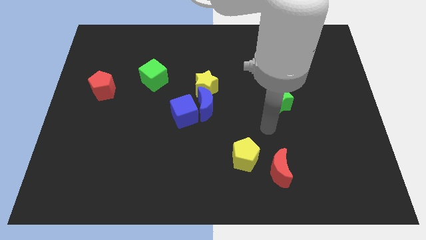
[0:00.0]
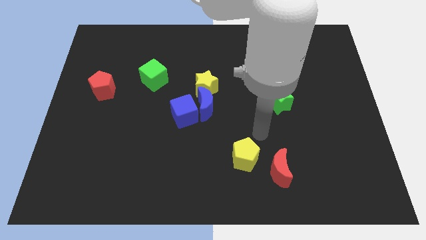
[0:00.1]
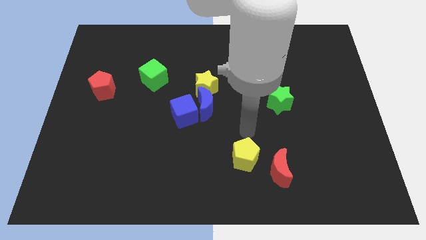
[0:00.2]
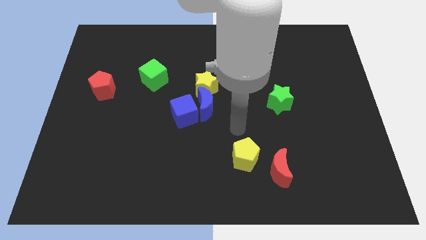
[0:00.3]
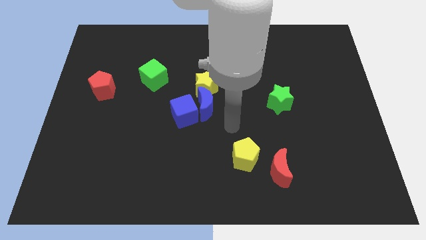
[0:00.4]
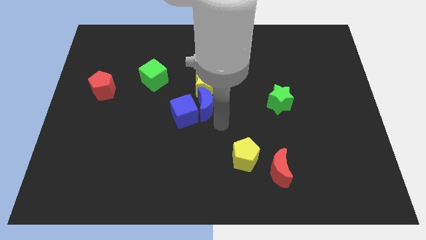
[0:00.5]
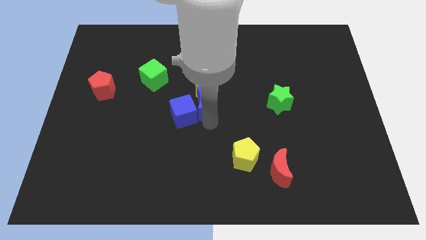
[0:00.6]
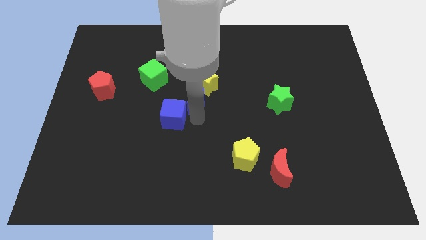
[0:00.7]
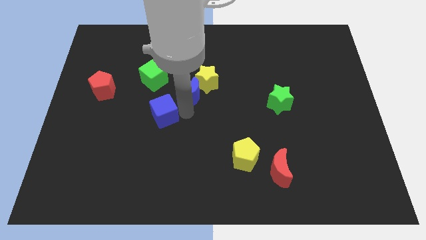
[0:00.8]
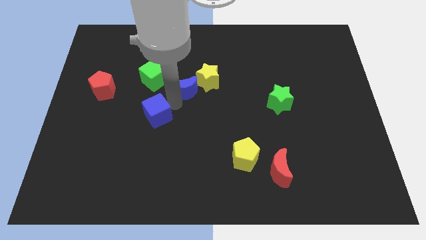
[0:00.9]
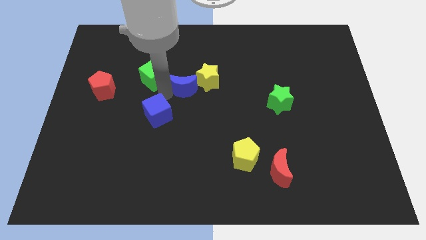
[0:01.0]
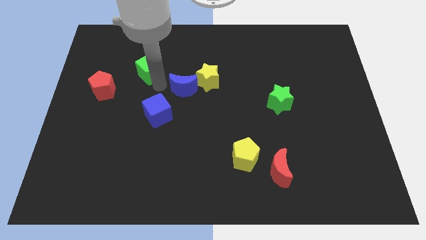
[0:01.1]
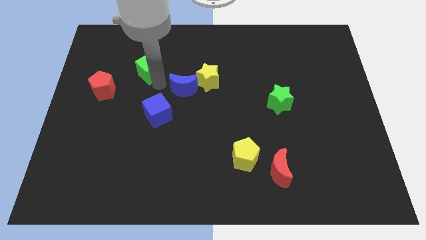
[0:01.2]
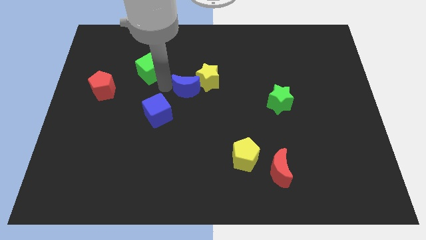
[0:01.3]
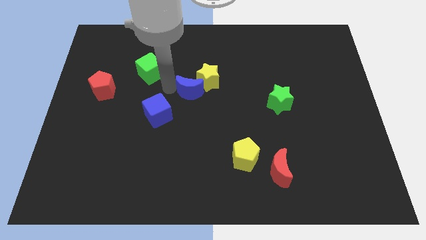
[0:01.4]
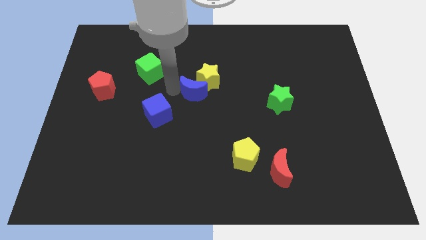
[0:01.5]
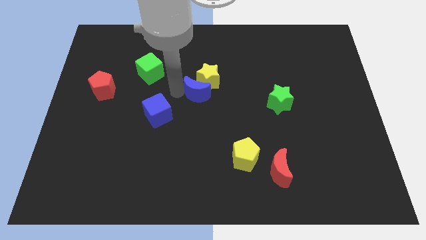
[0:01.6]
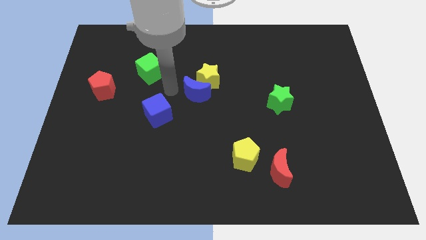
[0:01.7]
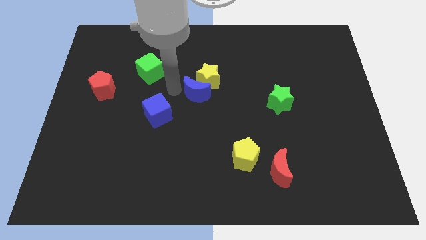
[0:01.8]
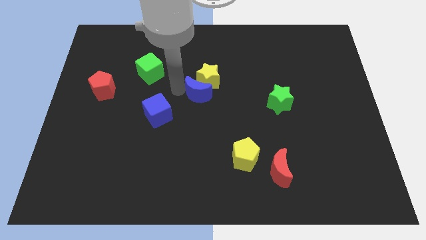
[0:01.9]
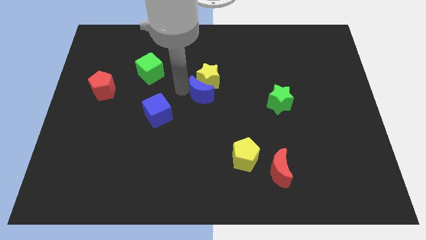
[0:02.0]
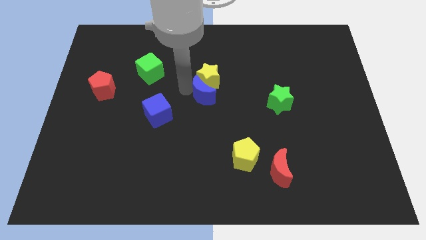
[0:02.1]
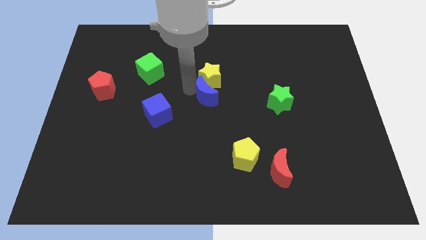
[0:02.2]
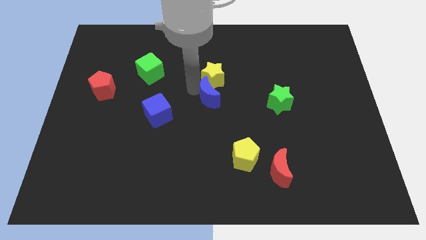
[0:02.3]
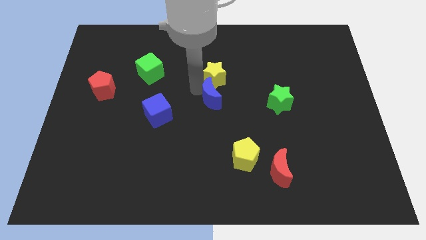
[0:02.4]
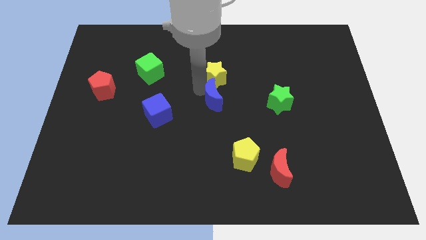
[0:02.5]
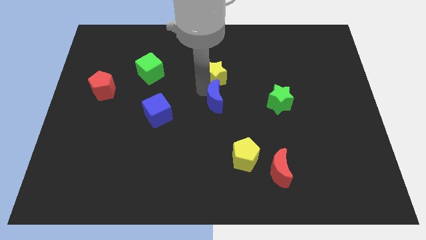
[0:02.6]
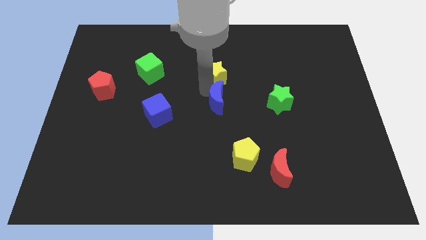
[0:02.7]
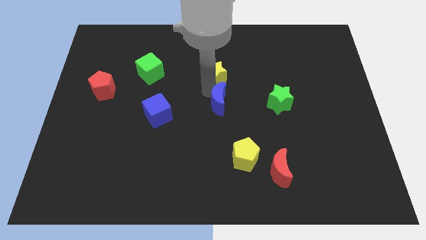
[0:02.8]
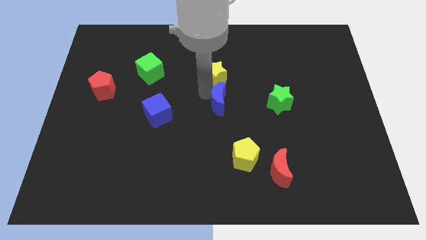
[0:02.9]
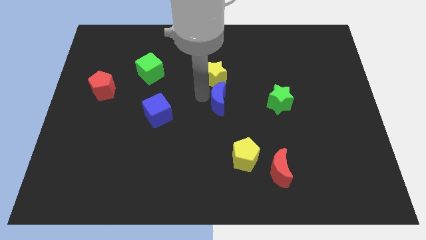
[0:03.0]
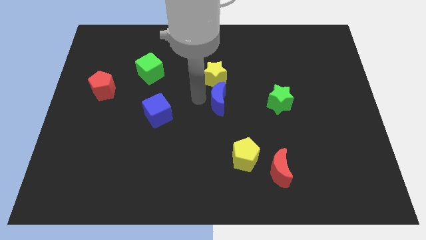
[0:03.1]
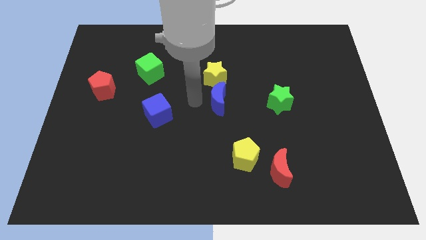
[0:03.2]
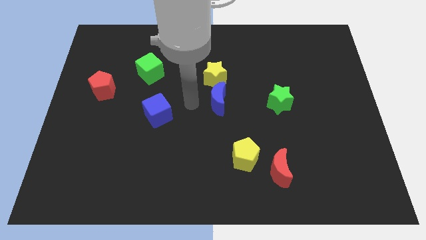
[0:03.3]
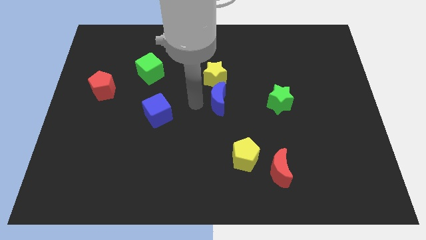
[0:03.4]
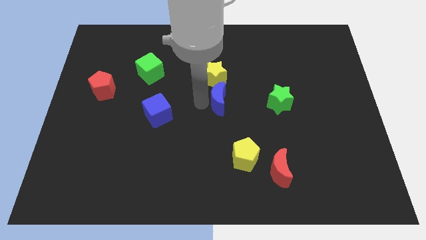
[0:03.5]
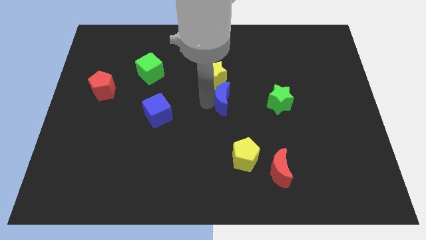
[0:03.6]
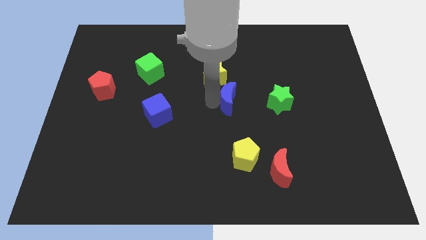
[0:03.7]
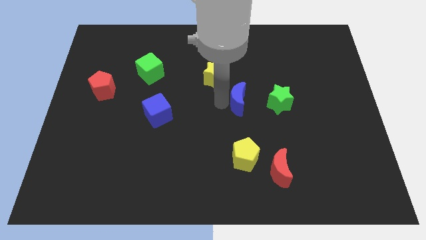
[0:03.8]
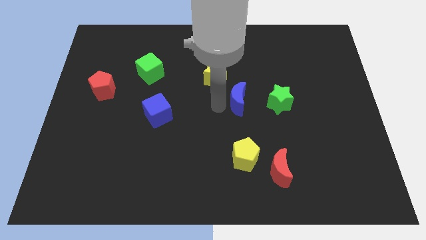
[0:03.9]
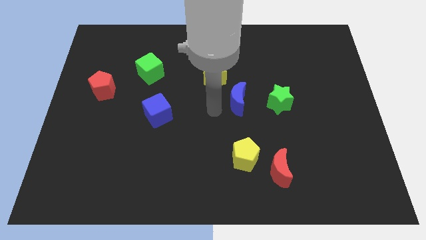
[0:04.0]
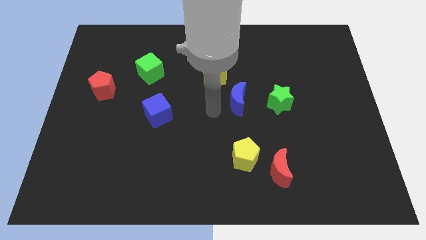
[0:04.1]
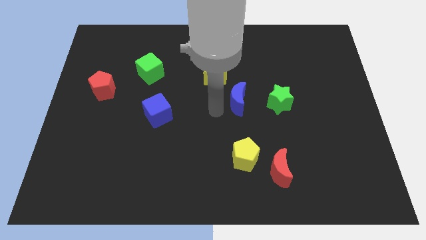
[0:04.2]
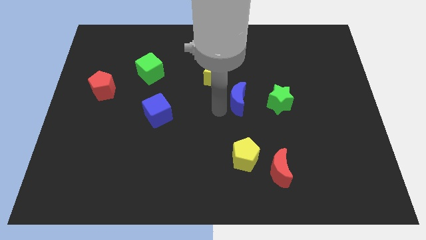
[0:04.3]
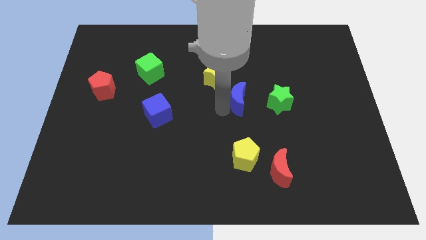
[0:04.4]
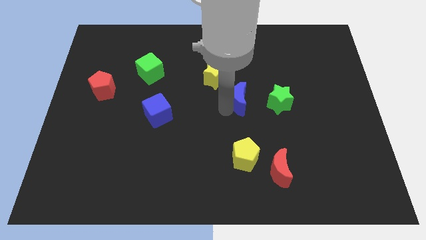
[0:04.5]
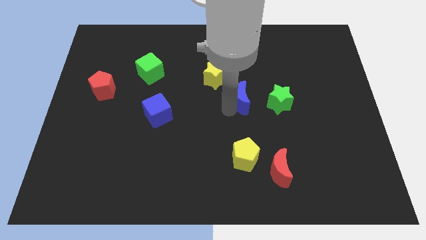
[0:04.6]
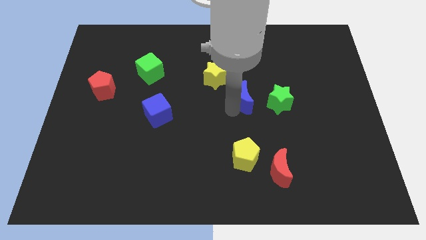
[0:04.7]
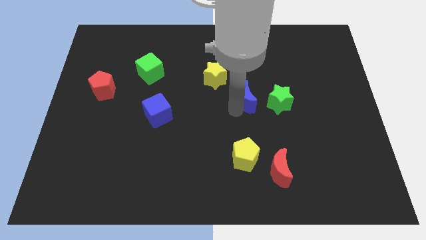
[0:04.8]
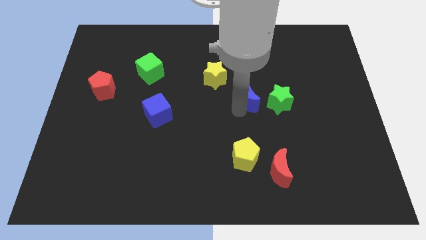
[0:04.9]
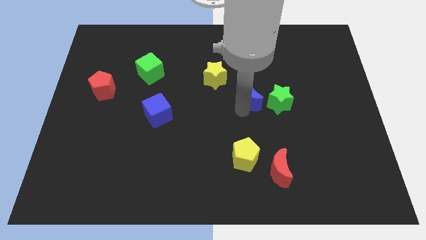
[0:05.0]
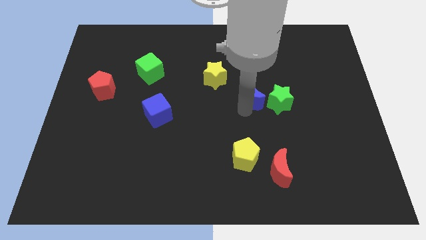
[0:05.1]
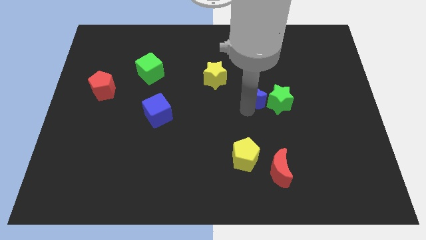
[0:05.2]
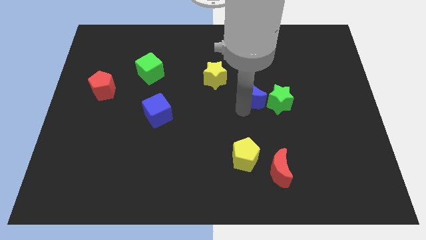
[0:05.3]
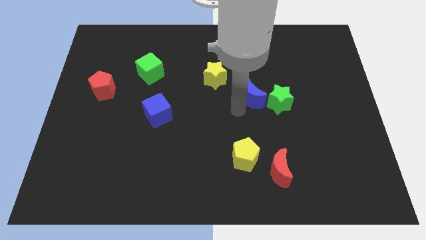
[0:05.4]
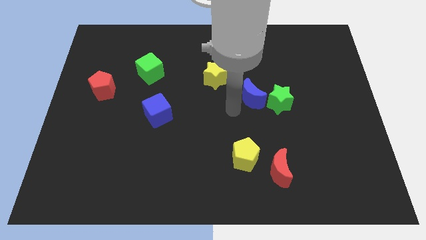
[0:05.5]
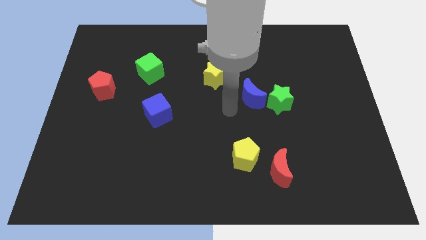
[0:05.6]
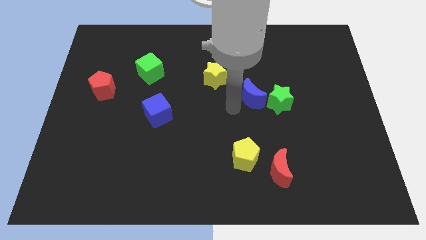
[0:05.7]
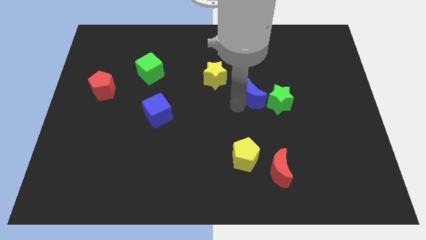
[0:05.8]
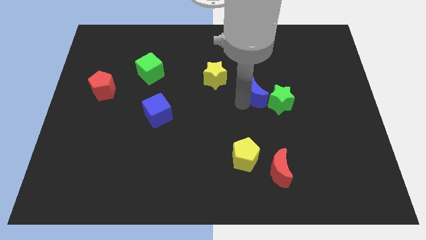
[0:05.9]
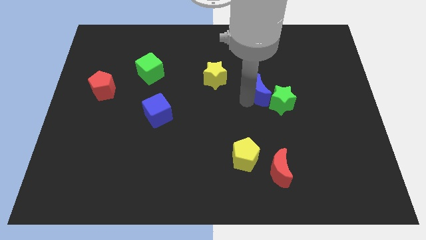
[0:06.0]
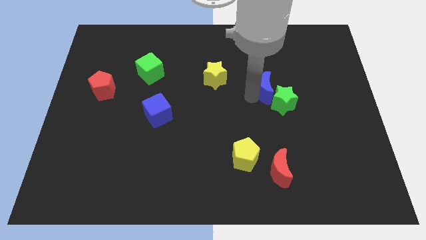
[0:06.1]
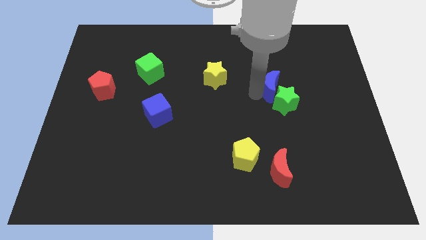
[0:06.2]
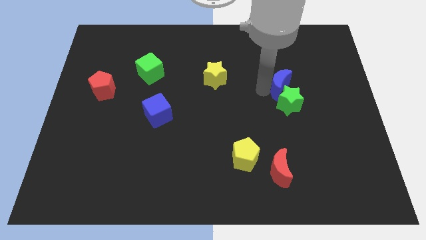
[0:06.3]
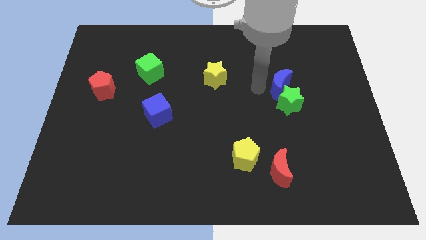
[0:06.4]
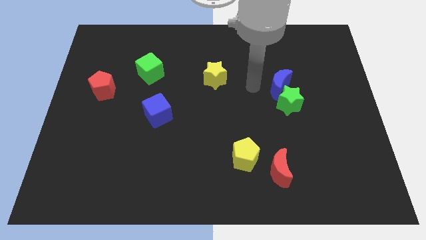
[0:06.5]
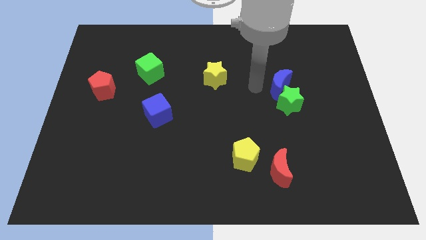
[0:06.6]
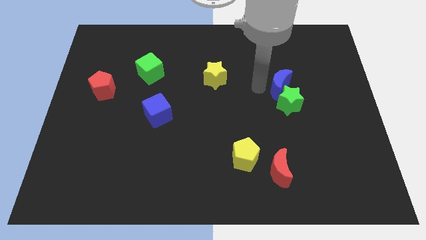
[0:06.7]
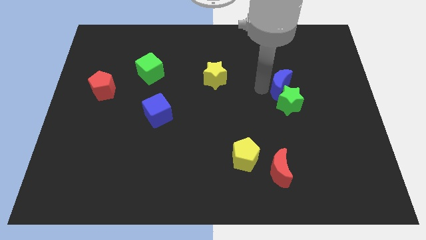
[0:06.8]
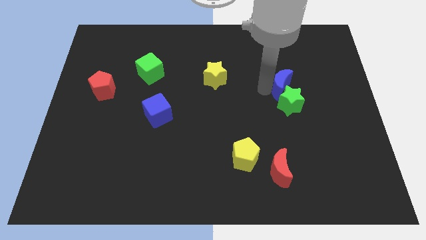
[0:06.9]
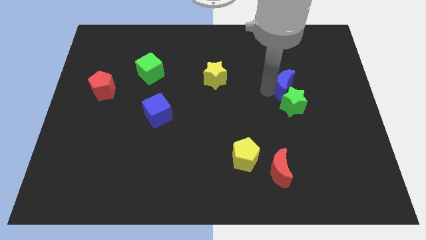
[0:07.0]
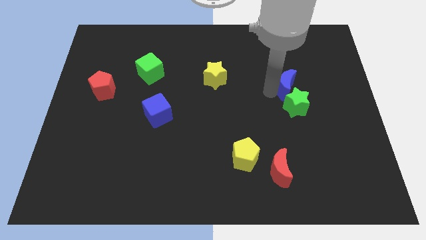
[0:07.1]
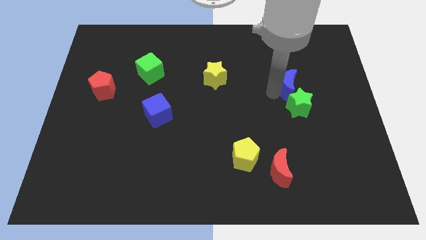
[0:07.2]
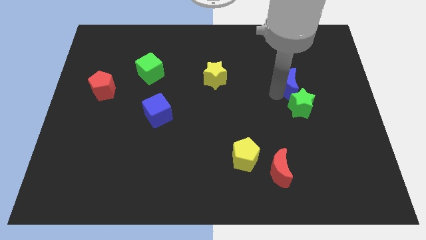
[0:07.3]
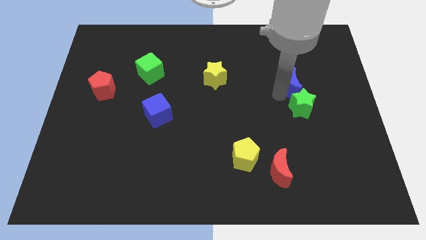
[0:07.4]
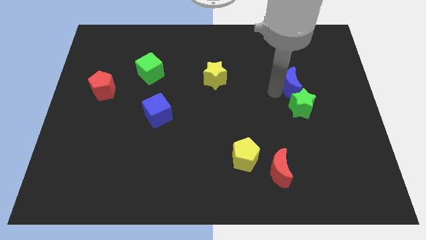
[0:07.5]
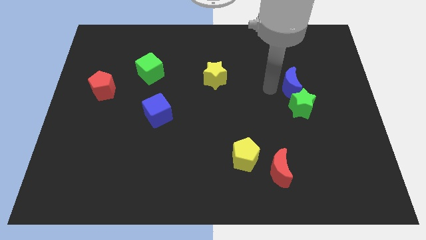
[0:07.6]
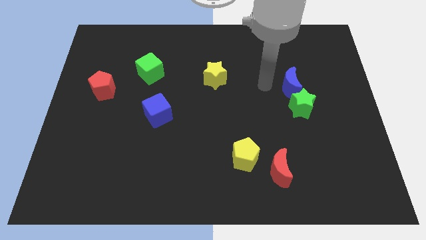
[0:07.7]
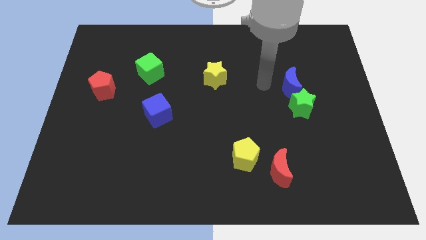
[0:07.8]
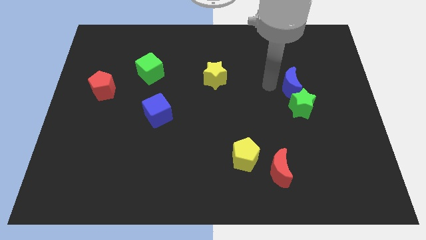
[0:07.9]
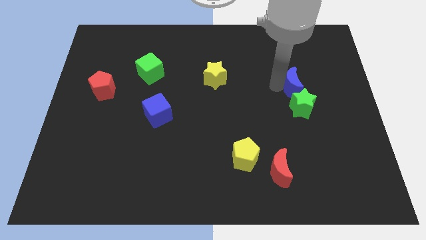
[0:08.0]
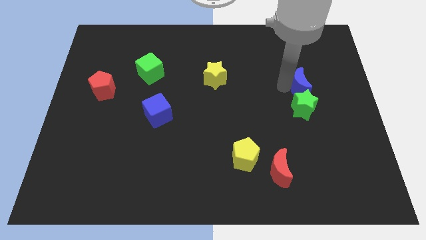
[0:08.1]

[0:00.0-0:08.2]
move the blue moon to the top right of the green star
